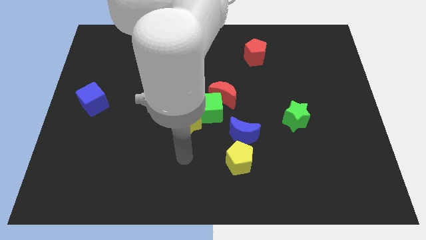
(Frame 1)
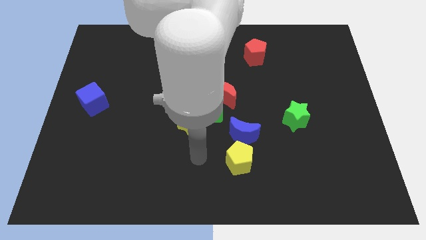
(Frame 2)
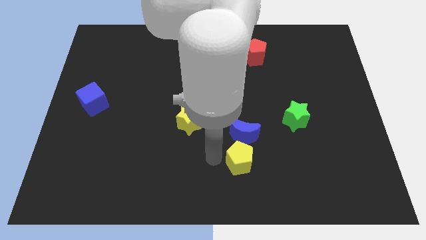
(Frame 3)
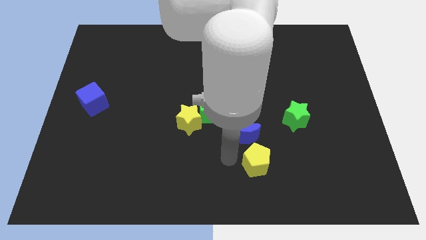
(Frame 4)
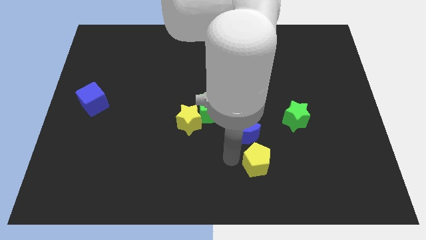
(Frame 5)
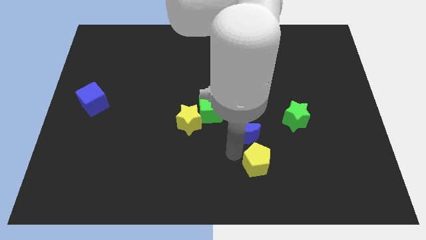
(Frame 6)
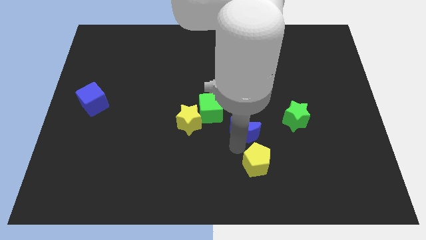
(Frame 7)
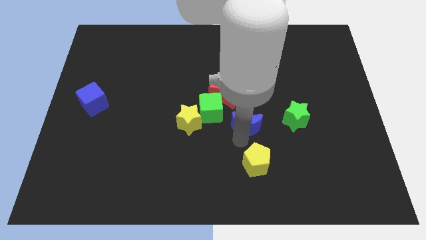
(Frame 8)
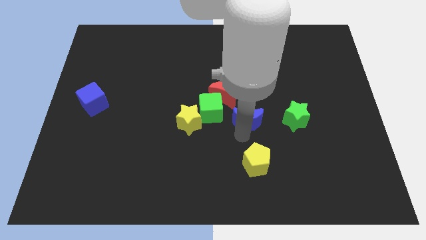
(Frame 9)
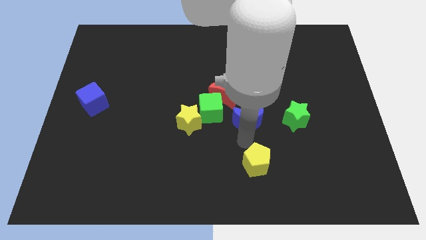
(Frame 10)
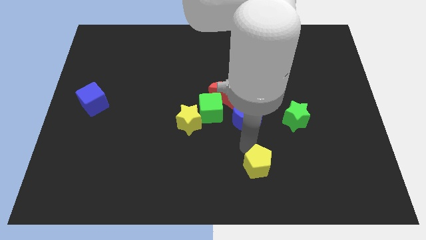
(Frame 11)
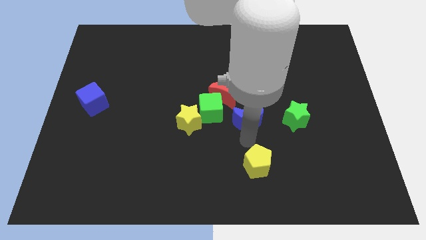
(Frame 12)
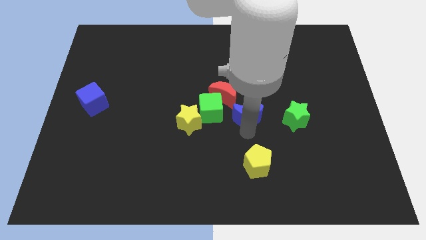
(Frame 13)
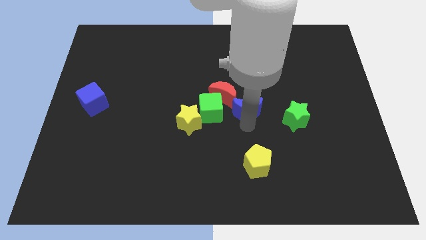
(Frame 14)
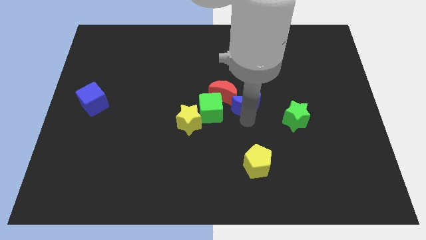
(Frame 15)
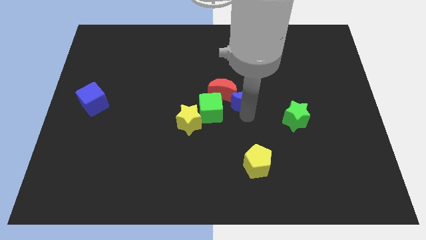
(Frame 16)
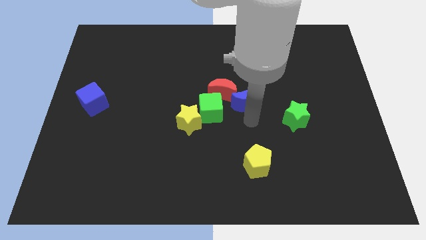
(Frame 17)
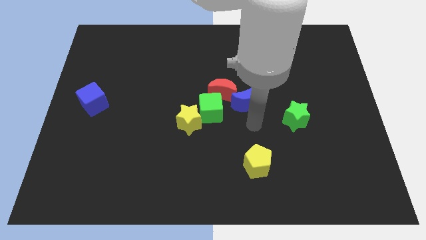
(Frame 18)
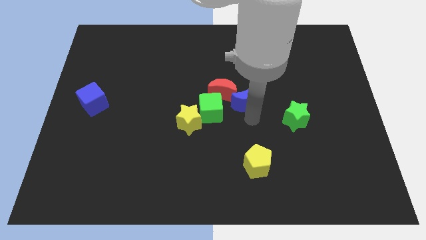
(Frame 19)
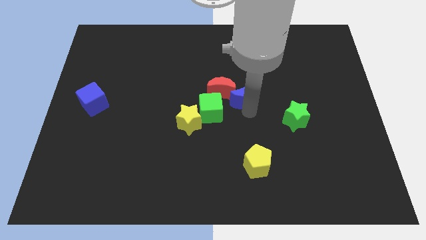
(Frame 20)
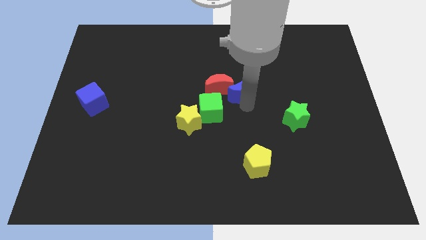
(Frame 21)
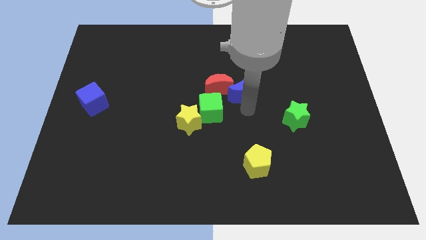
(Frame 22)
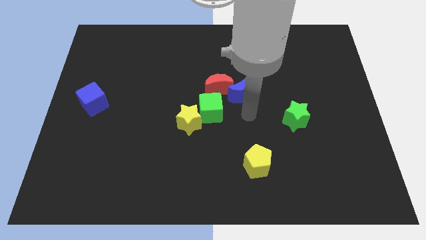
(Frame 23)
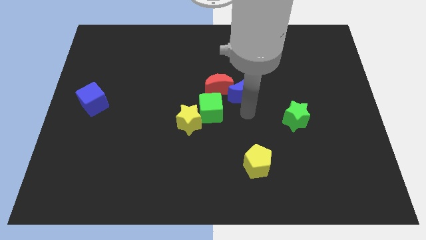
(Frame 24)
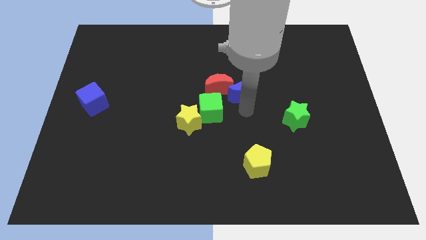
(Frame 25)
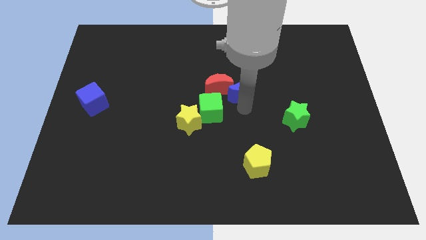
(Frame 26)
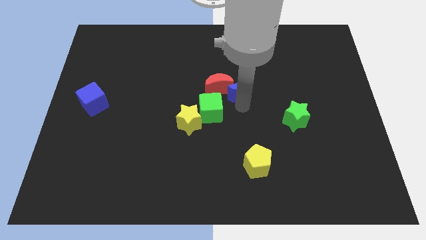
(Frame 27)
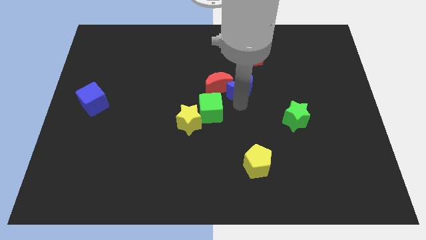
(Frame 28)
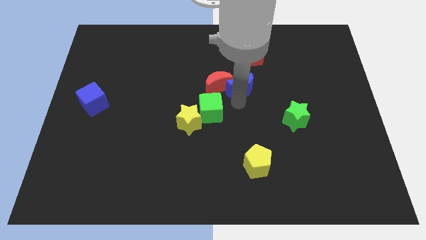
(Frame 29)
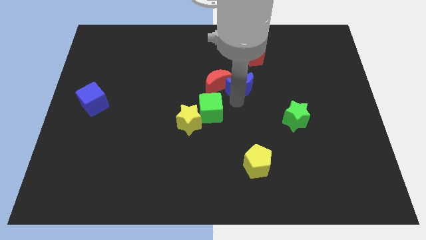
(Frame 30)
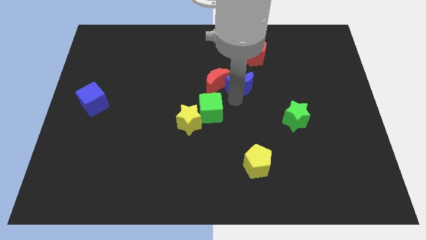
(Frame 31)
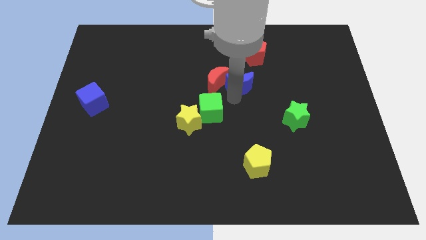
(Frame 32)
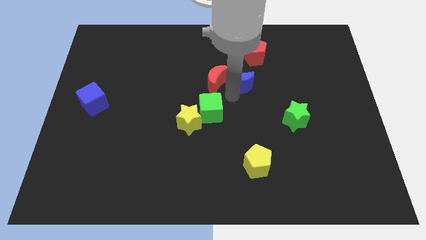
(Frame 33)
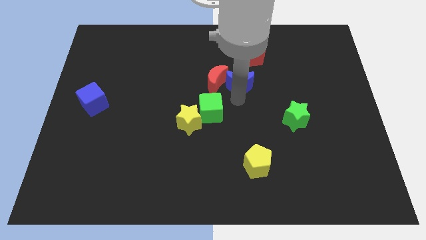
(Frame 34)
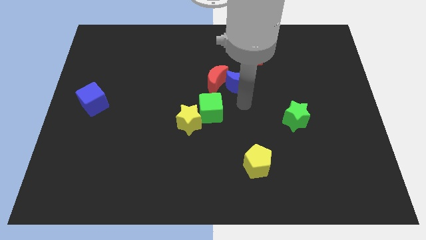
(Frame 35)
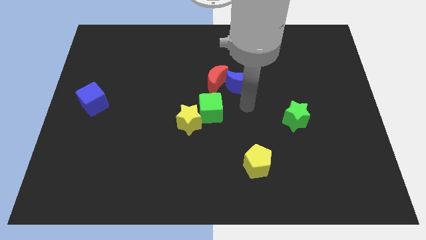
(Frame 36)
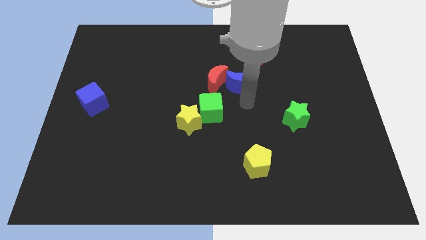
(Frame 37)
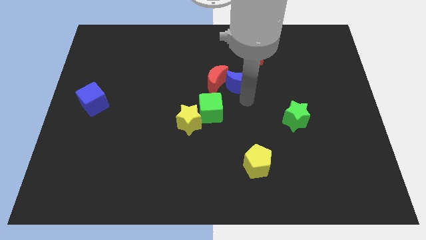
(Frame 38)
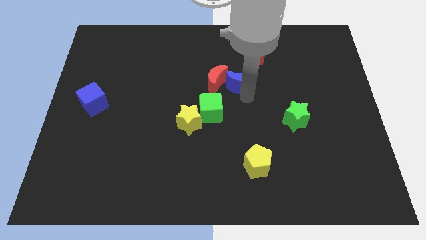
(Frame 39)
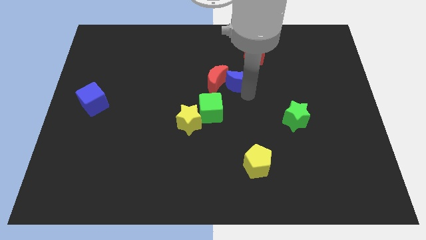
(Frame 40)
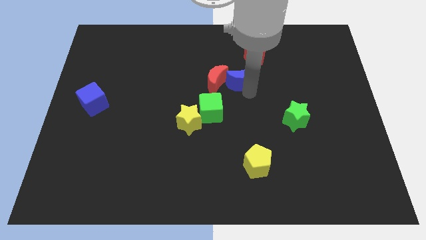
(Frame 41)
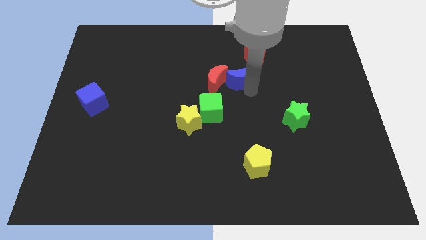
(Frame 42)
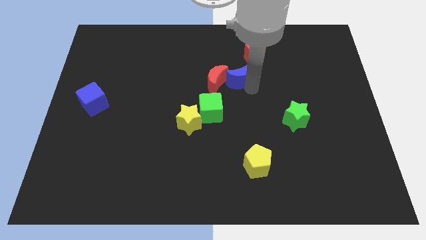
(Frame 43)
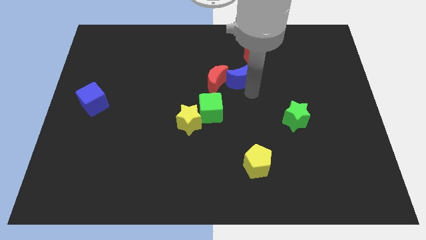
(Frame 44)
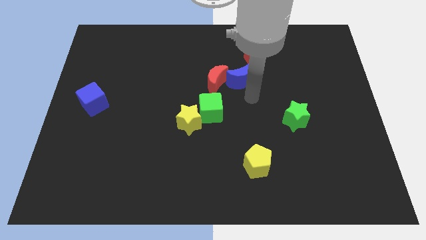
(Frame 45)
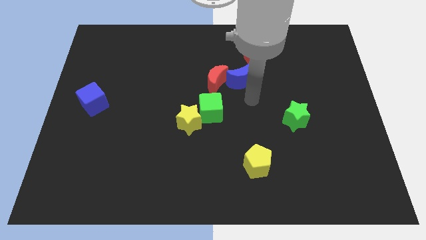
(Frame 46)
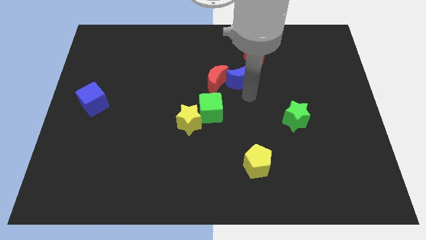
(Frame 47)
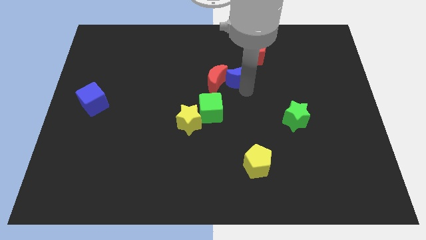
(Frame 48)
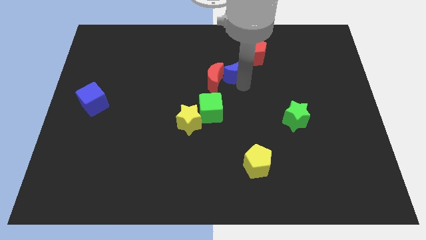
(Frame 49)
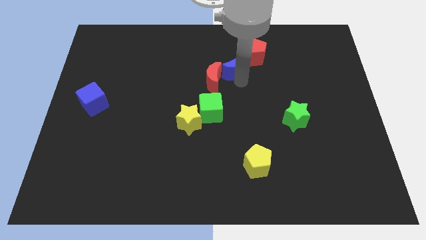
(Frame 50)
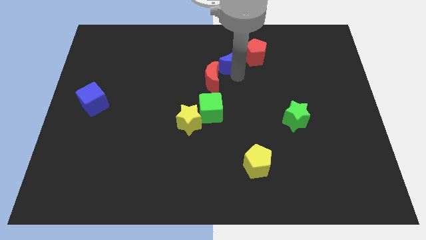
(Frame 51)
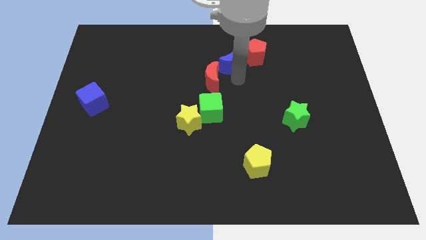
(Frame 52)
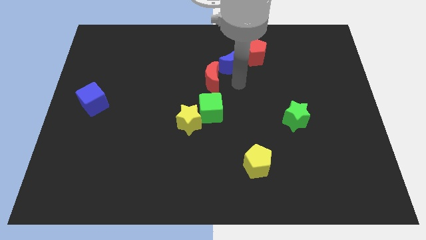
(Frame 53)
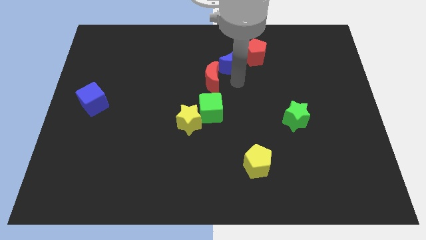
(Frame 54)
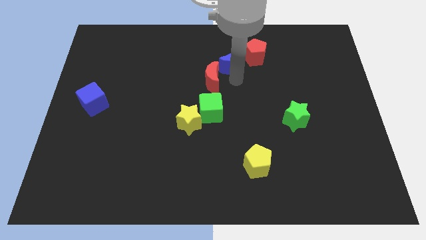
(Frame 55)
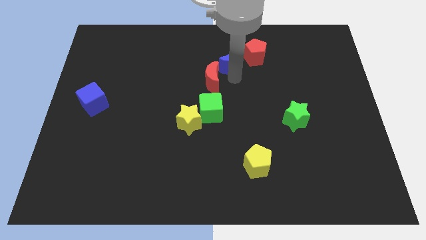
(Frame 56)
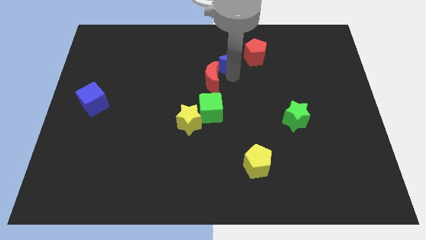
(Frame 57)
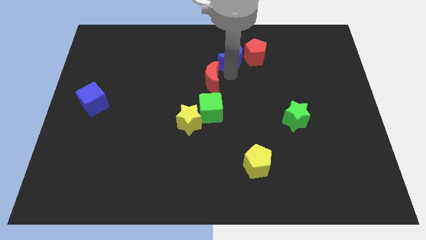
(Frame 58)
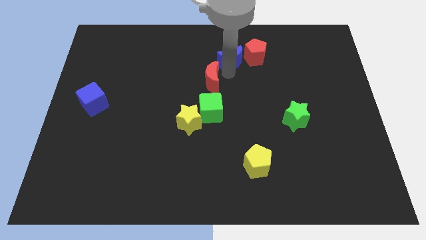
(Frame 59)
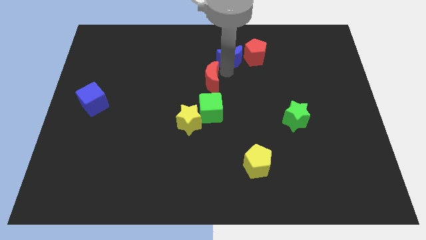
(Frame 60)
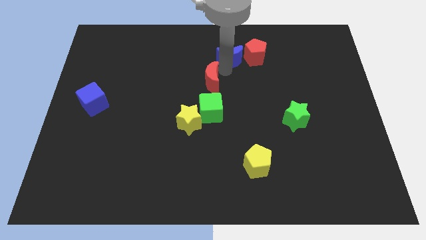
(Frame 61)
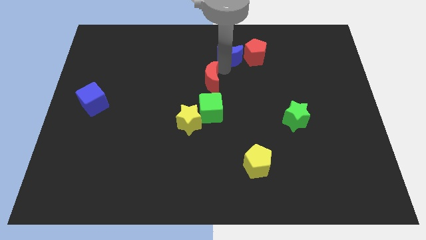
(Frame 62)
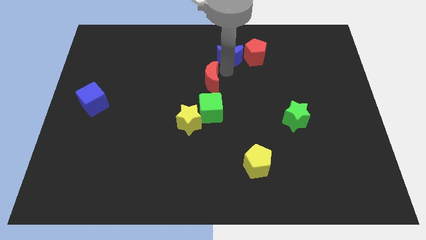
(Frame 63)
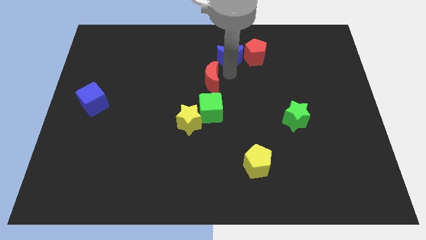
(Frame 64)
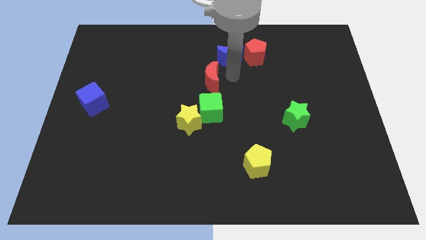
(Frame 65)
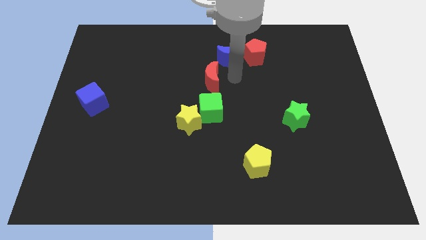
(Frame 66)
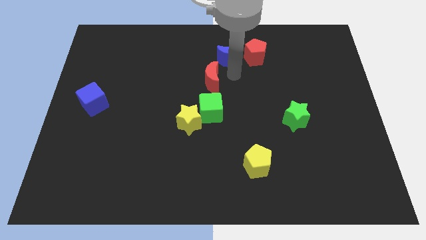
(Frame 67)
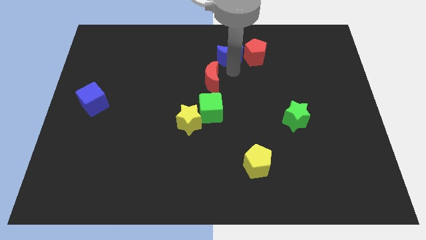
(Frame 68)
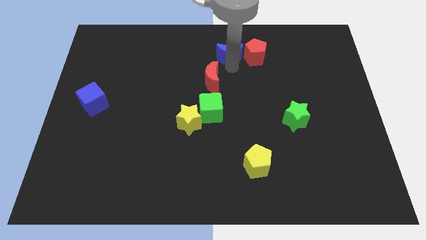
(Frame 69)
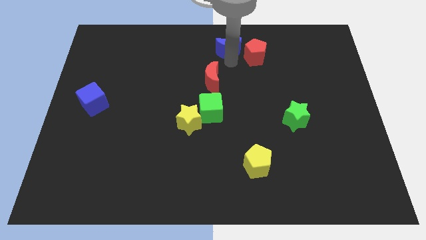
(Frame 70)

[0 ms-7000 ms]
slide the blue moon to the top

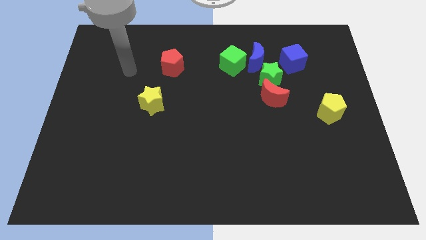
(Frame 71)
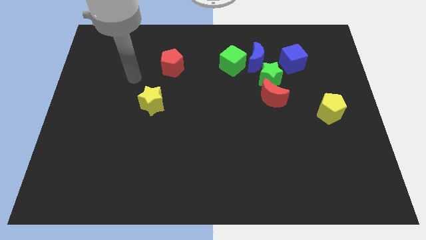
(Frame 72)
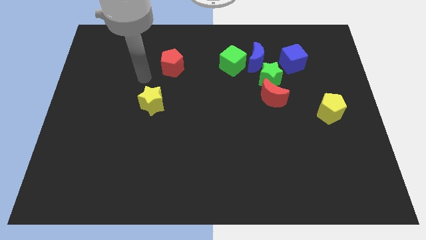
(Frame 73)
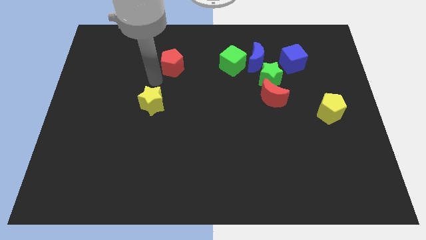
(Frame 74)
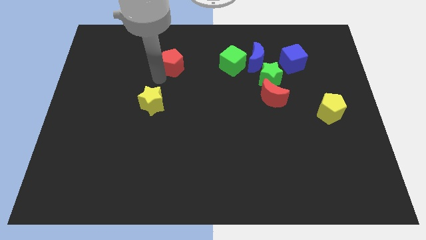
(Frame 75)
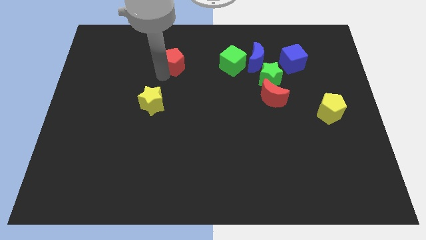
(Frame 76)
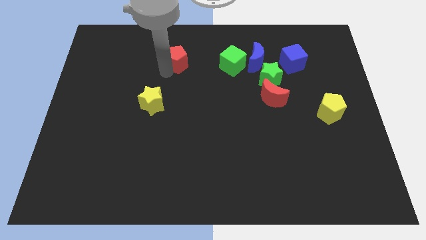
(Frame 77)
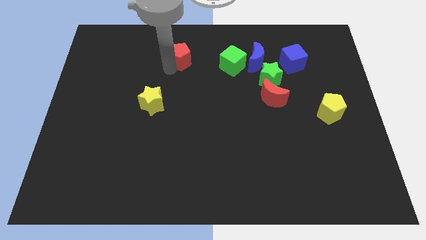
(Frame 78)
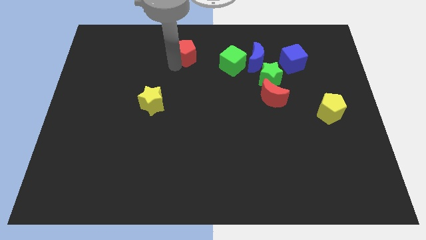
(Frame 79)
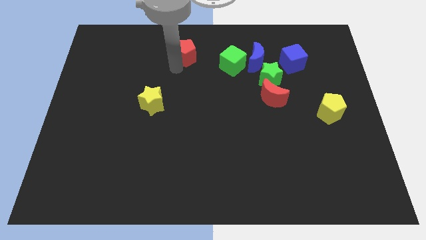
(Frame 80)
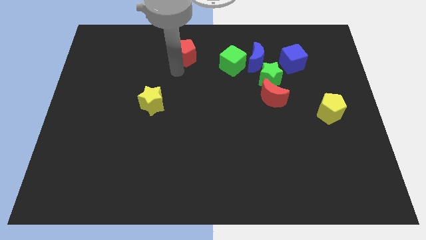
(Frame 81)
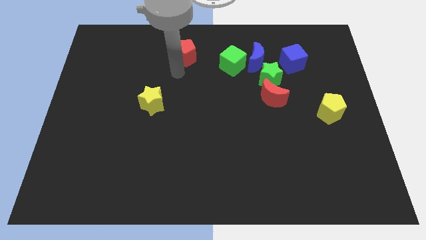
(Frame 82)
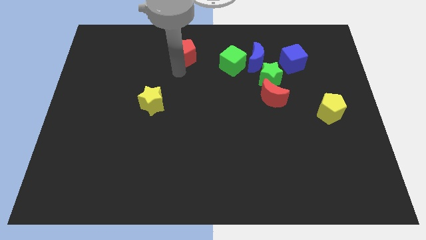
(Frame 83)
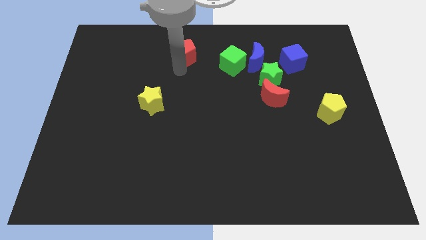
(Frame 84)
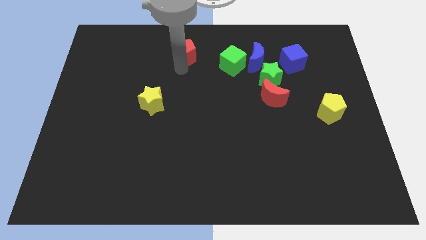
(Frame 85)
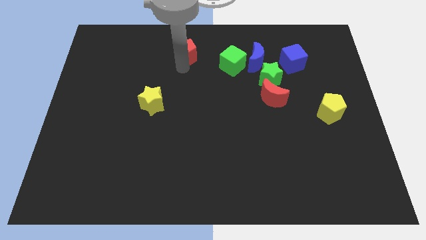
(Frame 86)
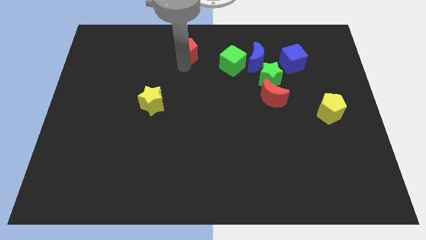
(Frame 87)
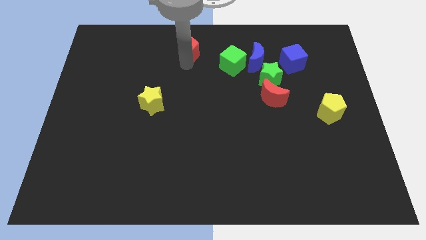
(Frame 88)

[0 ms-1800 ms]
push the red pentagon to the top side

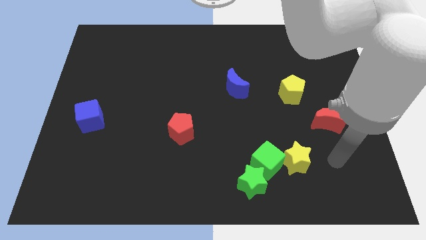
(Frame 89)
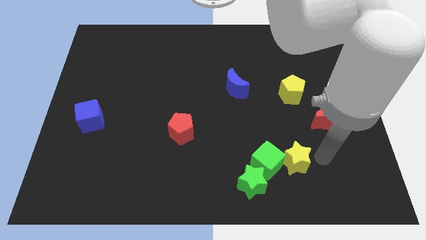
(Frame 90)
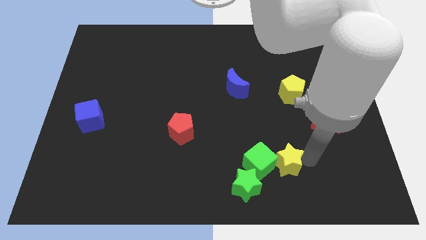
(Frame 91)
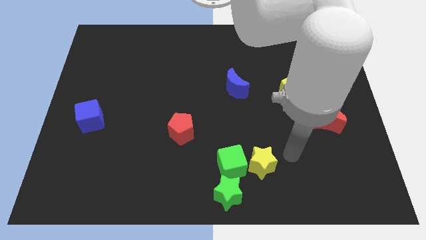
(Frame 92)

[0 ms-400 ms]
push the green cube to the bottom
